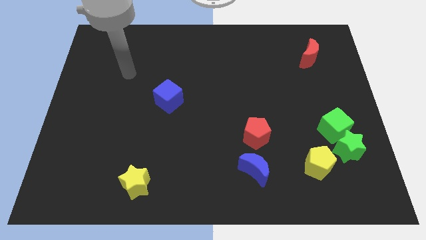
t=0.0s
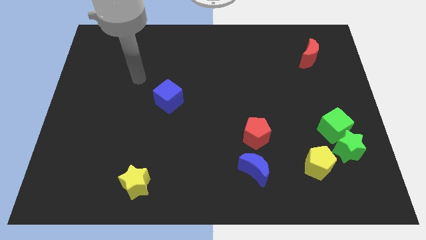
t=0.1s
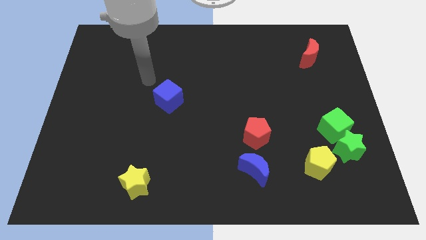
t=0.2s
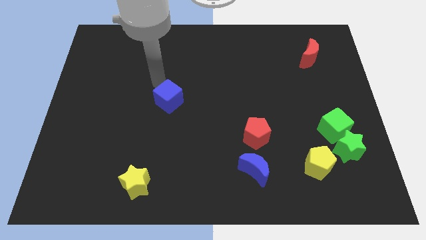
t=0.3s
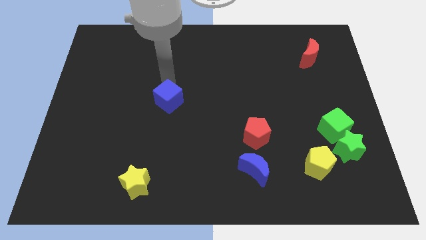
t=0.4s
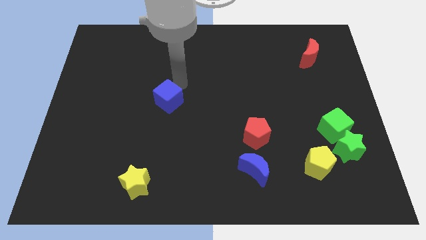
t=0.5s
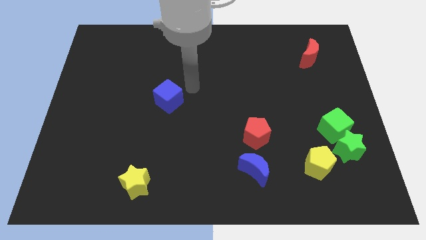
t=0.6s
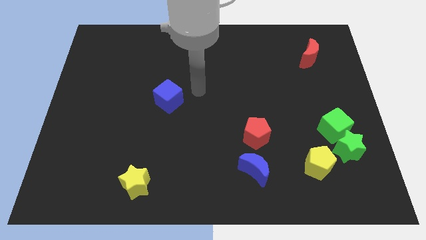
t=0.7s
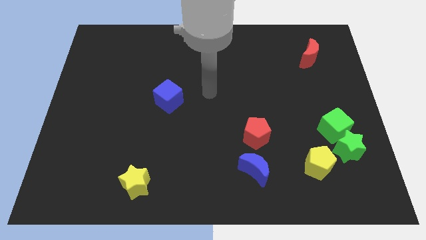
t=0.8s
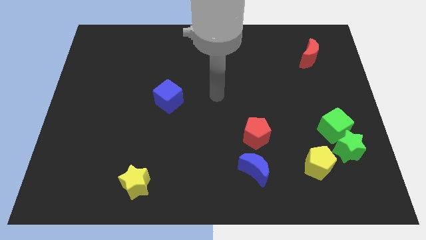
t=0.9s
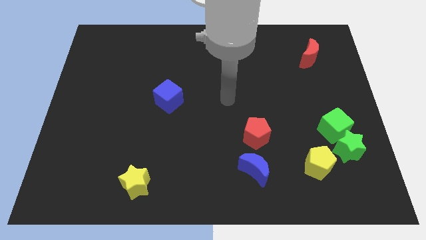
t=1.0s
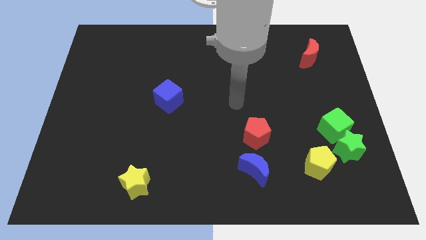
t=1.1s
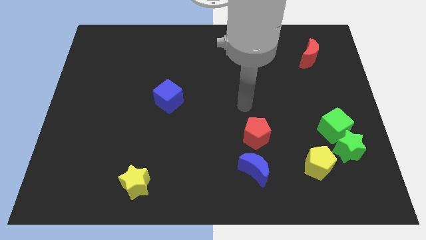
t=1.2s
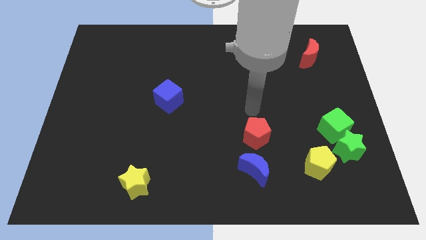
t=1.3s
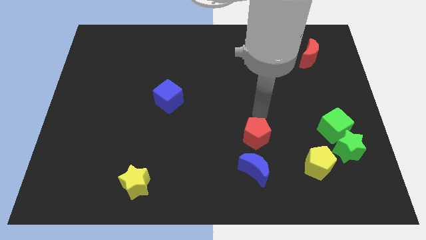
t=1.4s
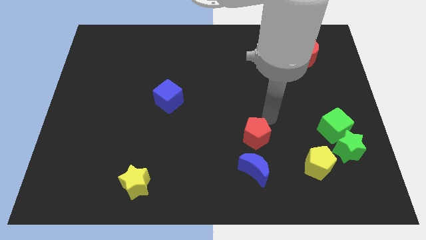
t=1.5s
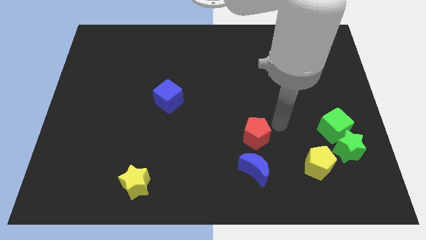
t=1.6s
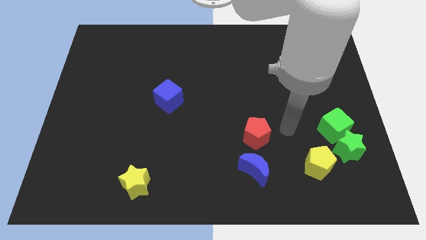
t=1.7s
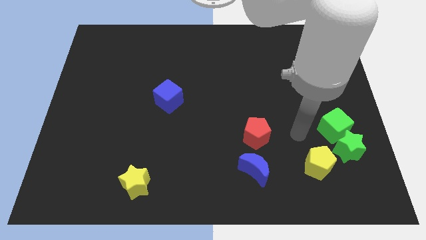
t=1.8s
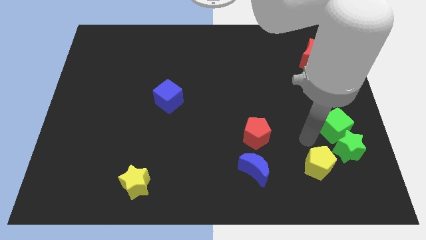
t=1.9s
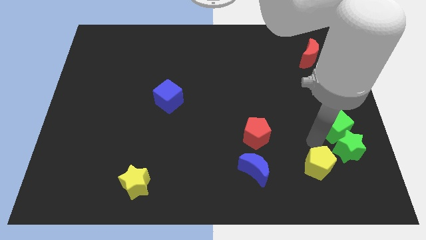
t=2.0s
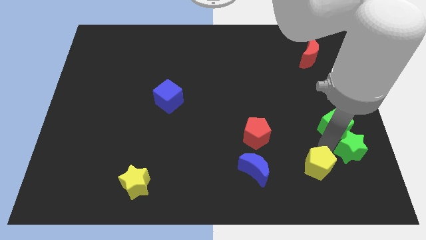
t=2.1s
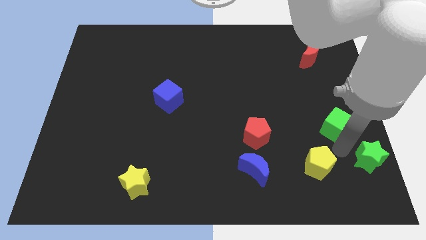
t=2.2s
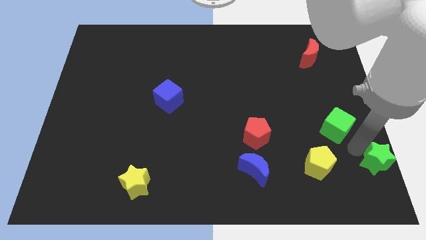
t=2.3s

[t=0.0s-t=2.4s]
move the green cube away from the green star

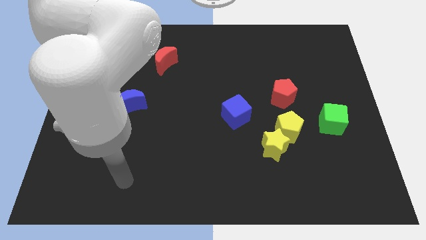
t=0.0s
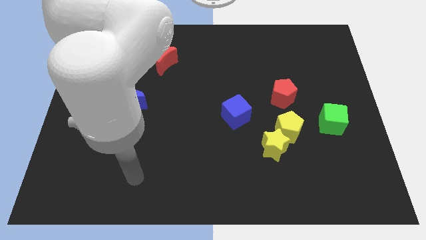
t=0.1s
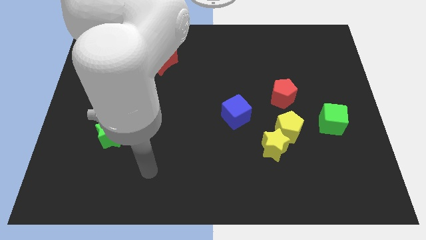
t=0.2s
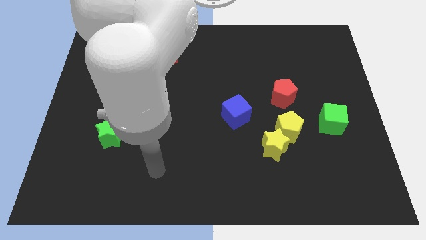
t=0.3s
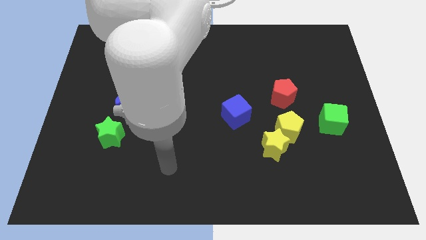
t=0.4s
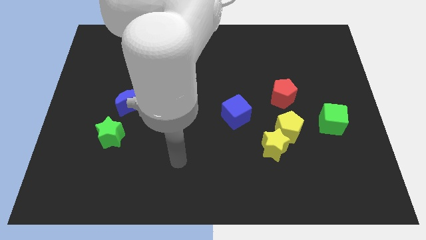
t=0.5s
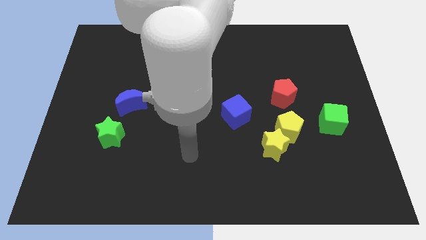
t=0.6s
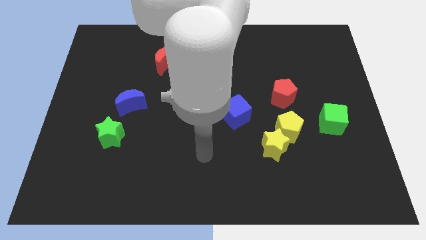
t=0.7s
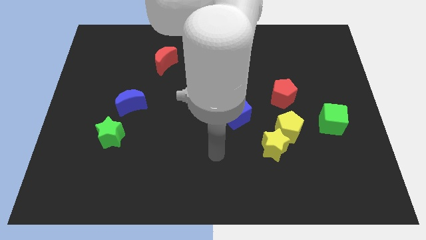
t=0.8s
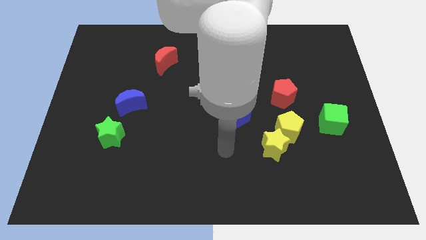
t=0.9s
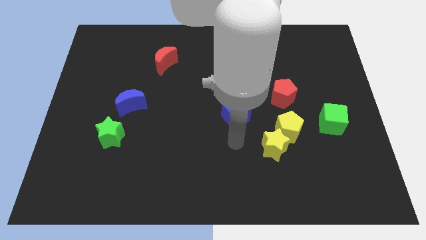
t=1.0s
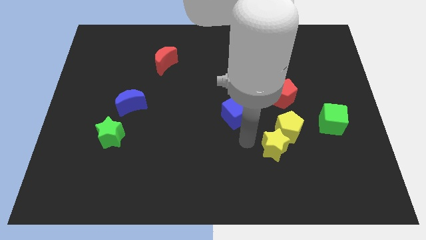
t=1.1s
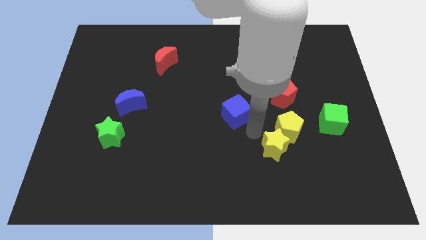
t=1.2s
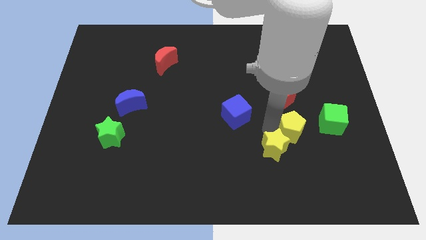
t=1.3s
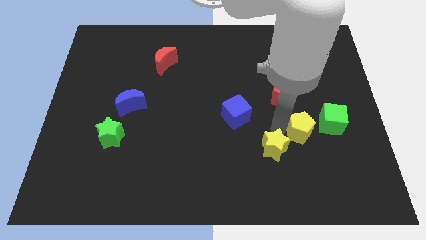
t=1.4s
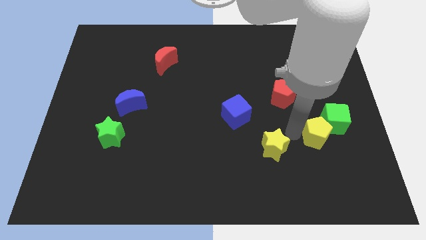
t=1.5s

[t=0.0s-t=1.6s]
separate the yellow star from the yellow pentagon

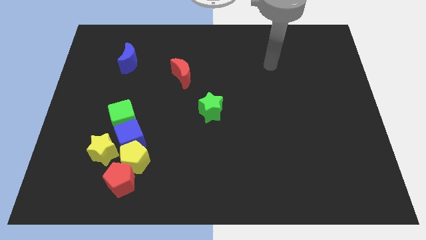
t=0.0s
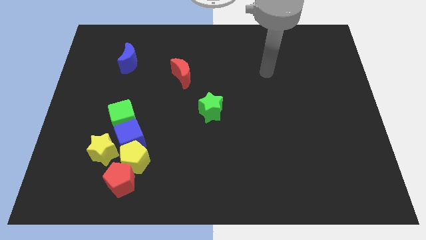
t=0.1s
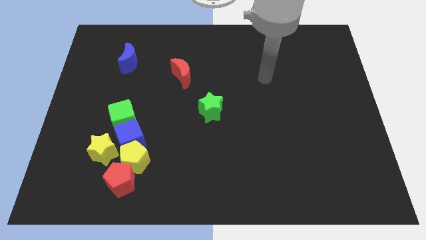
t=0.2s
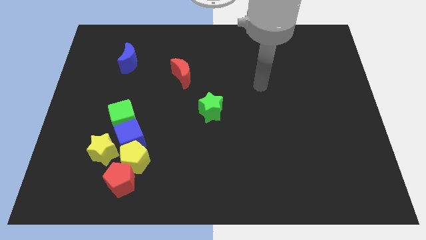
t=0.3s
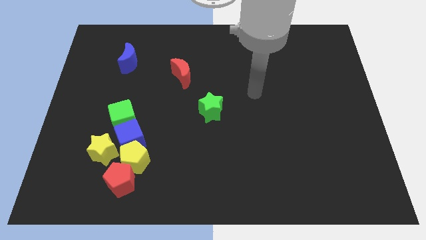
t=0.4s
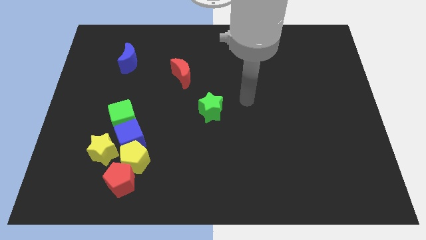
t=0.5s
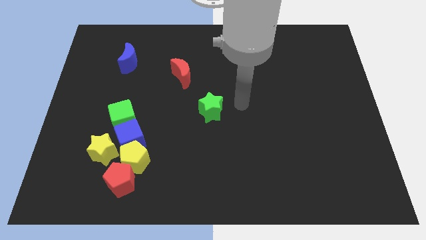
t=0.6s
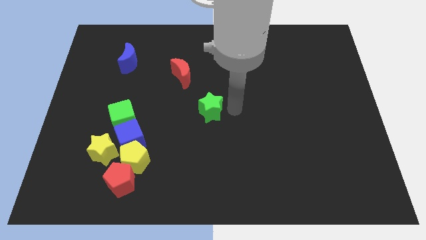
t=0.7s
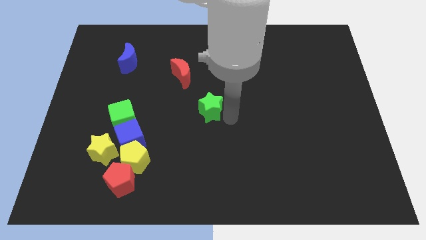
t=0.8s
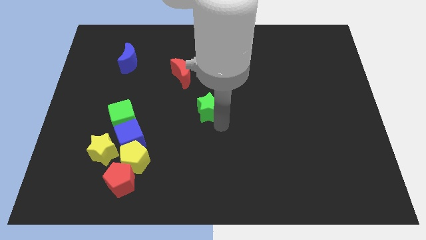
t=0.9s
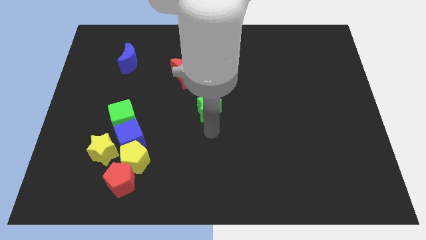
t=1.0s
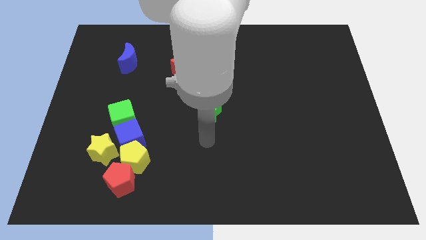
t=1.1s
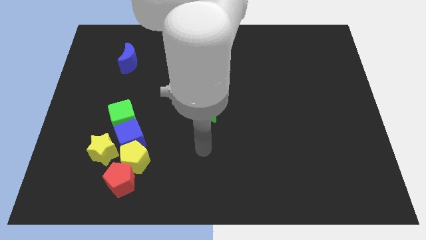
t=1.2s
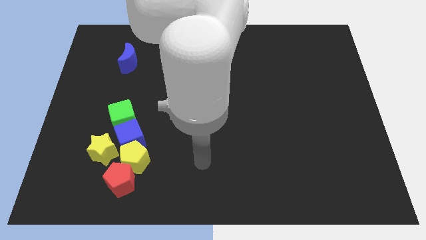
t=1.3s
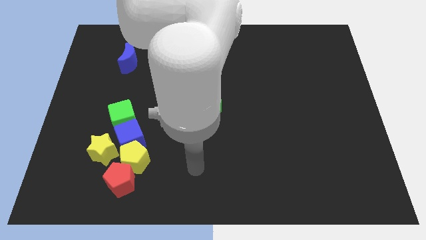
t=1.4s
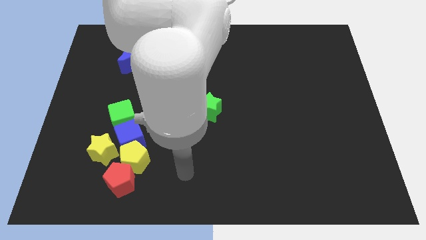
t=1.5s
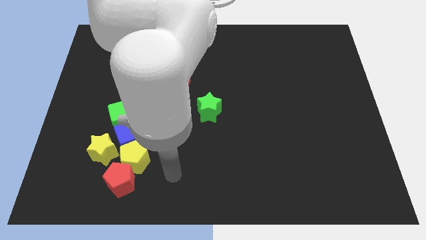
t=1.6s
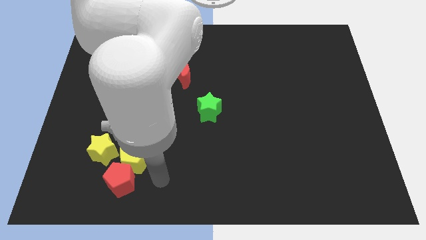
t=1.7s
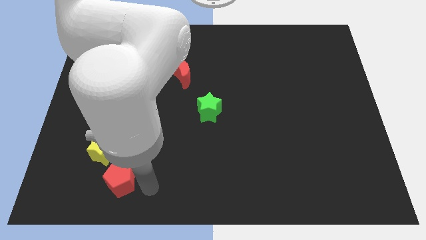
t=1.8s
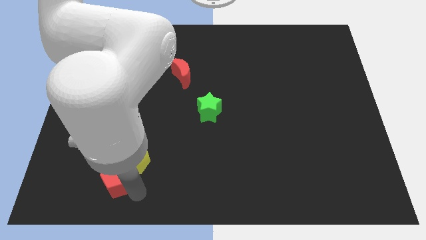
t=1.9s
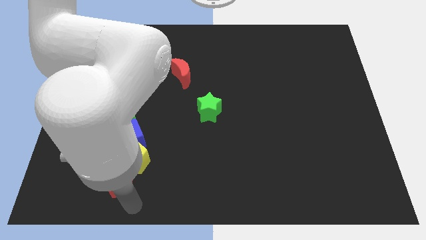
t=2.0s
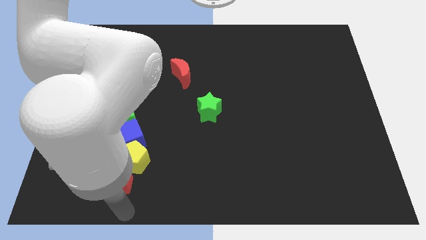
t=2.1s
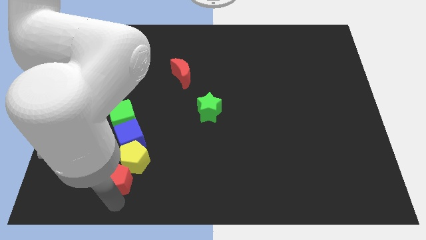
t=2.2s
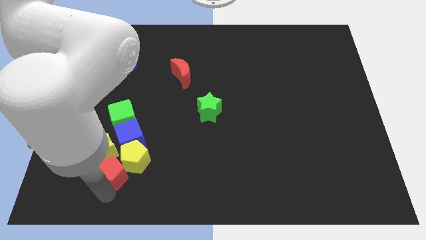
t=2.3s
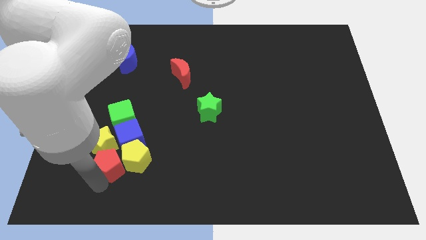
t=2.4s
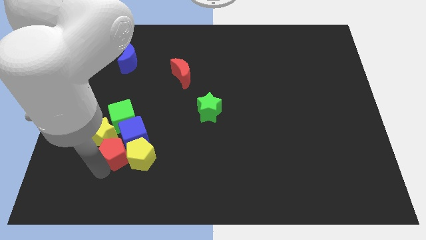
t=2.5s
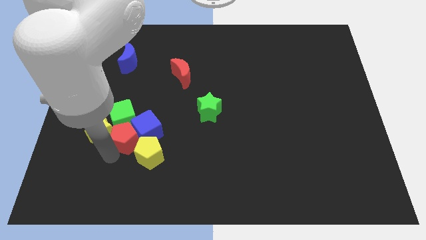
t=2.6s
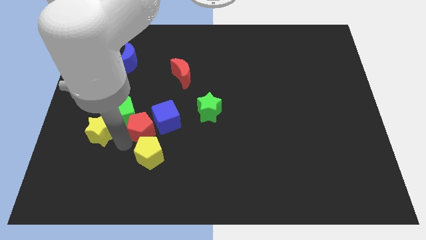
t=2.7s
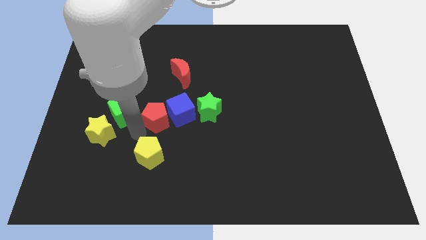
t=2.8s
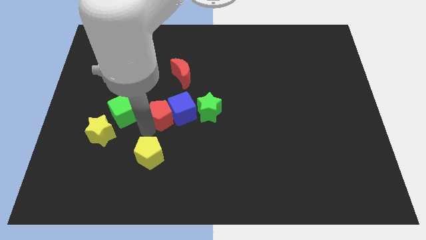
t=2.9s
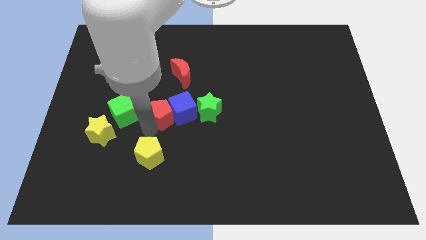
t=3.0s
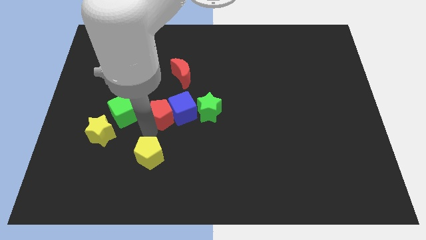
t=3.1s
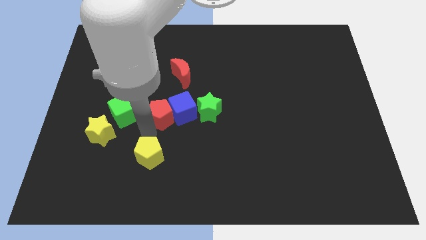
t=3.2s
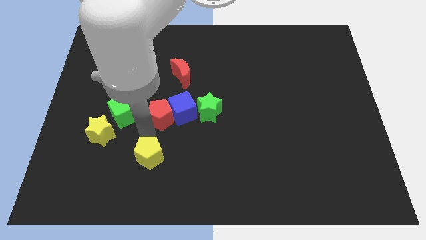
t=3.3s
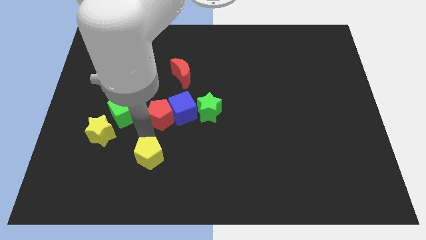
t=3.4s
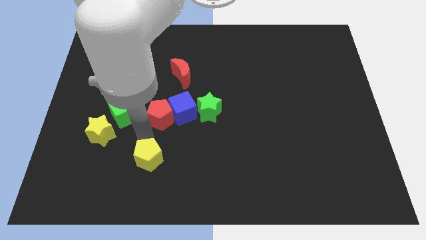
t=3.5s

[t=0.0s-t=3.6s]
pull the yellow pentagon apart from the group of blocks

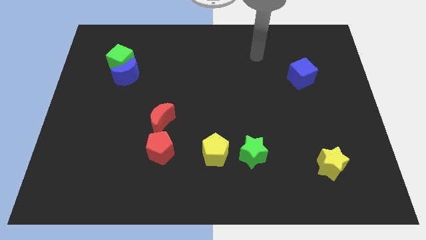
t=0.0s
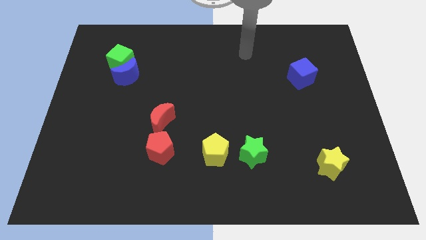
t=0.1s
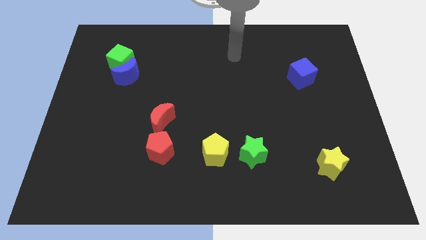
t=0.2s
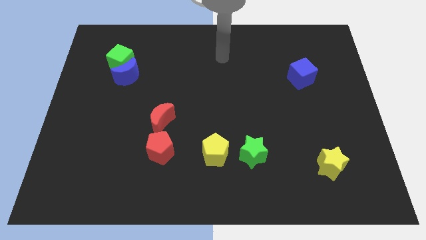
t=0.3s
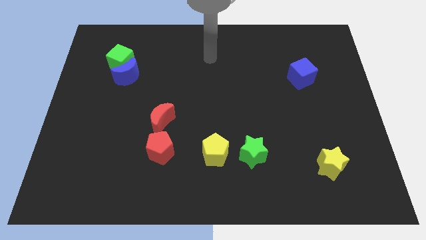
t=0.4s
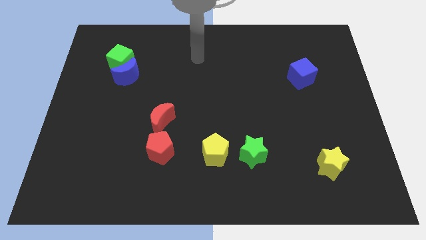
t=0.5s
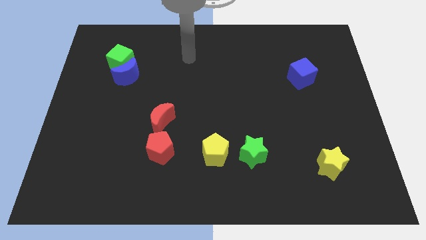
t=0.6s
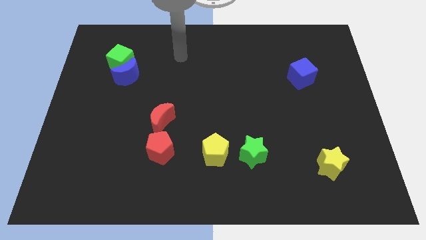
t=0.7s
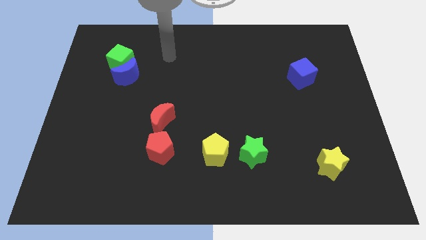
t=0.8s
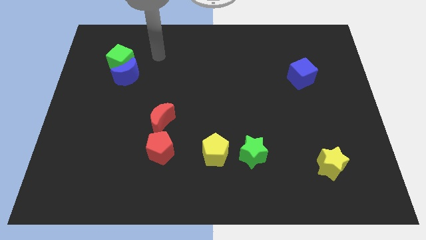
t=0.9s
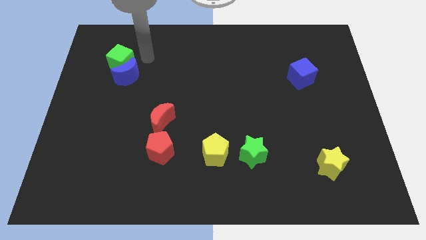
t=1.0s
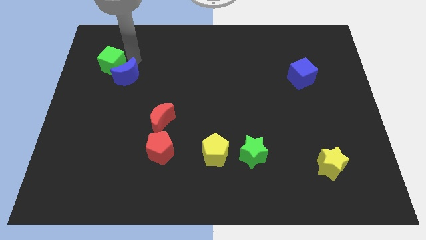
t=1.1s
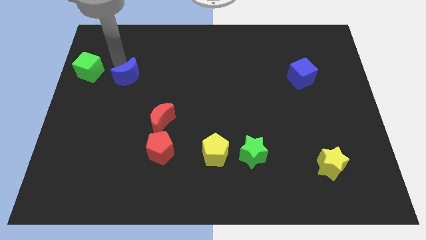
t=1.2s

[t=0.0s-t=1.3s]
pull the blue moon apart from the green cube

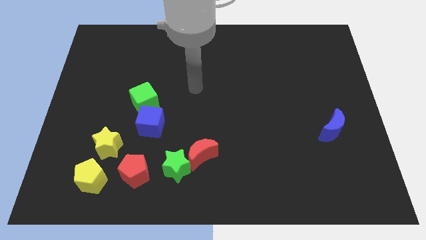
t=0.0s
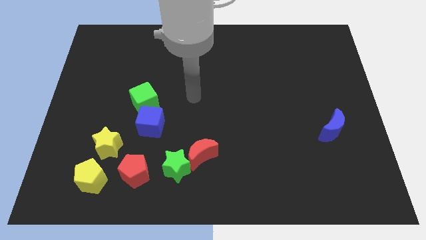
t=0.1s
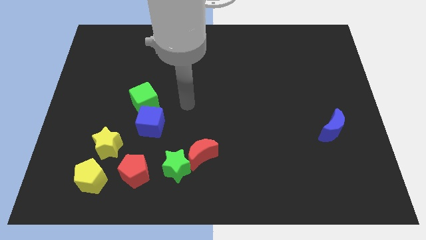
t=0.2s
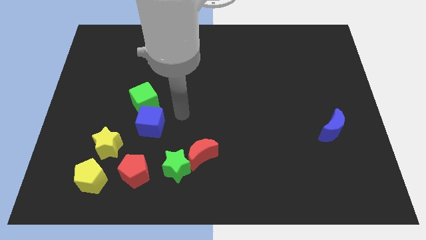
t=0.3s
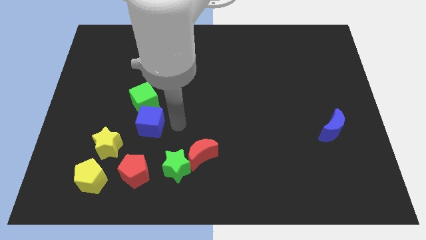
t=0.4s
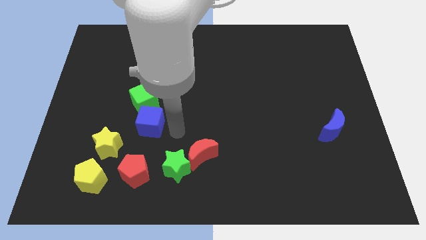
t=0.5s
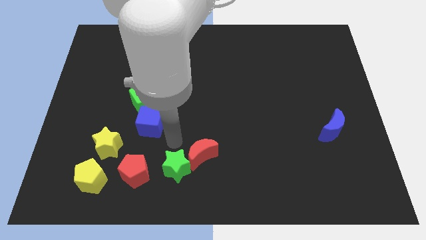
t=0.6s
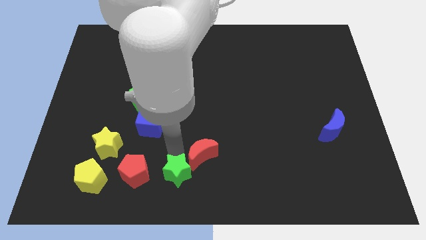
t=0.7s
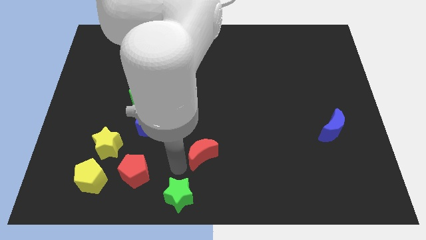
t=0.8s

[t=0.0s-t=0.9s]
move the red moon away from the green star
